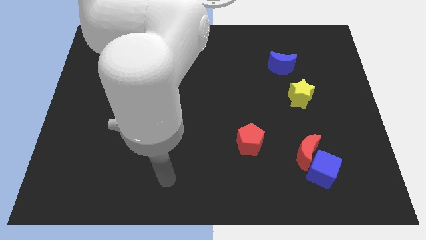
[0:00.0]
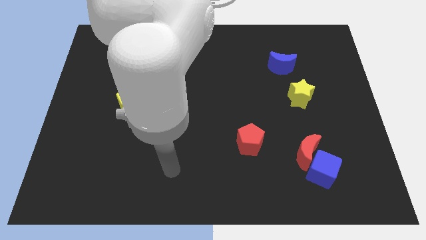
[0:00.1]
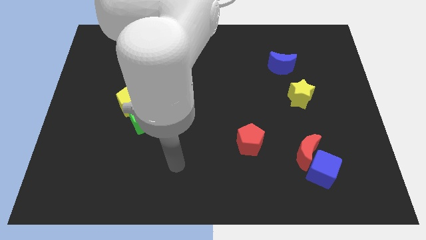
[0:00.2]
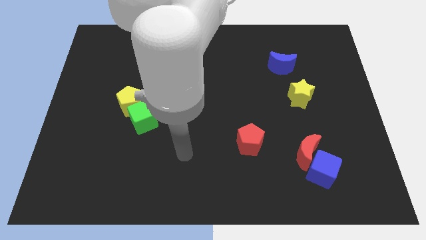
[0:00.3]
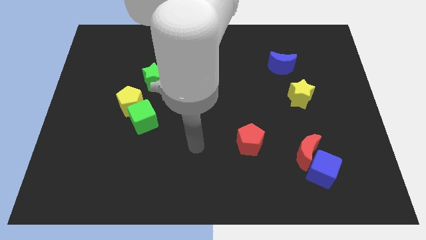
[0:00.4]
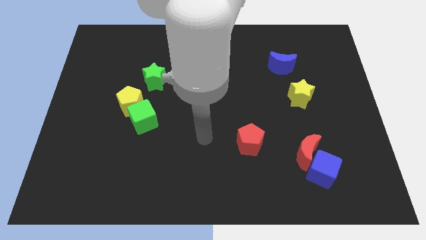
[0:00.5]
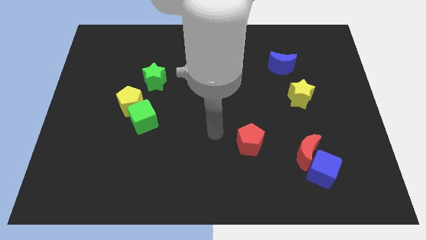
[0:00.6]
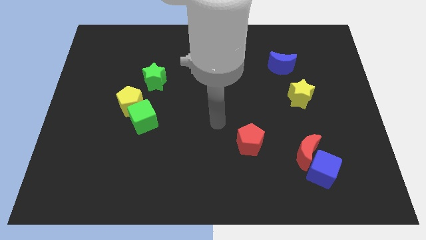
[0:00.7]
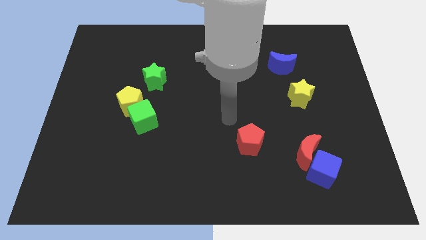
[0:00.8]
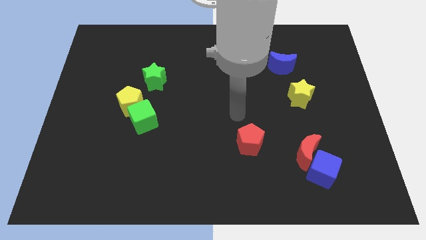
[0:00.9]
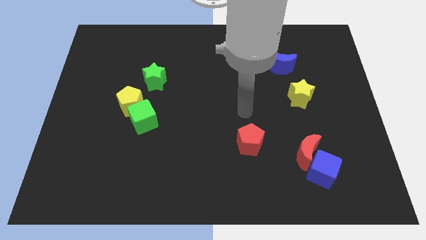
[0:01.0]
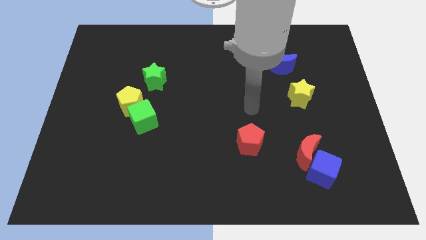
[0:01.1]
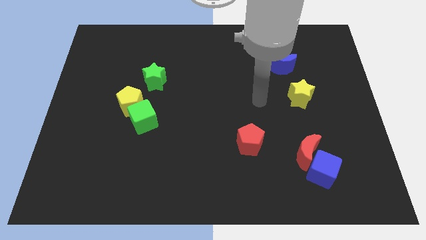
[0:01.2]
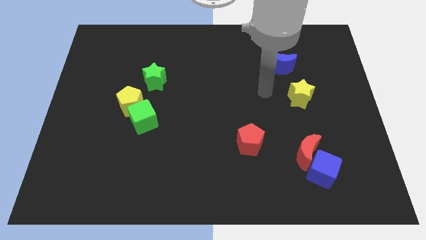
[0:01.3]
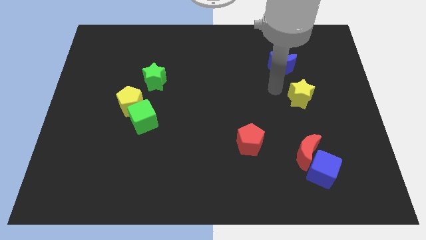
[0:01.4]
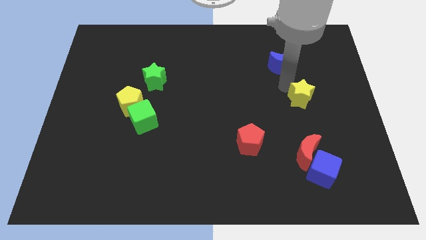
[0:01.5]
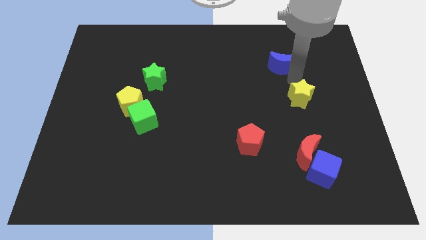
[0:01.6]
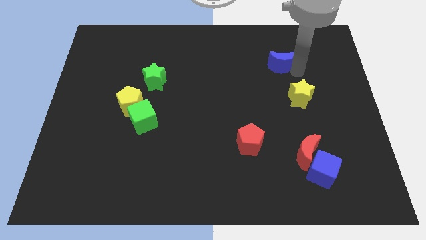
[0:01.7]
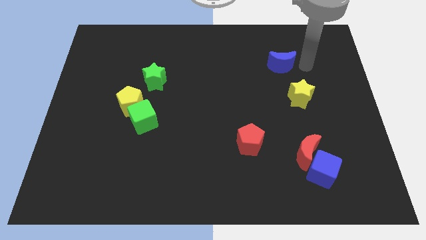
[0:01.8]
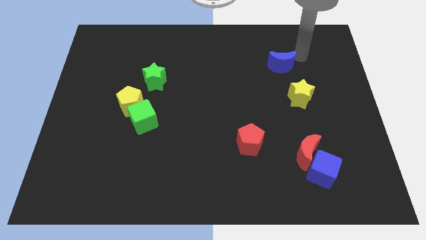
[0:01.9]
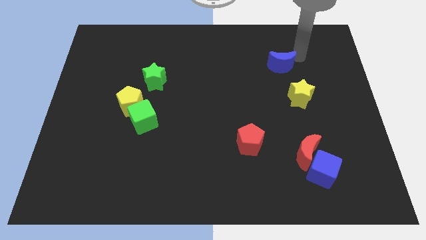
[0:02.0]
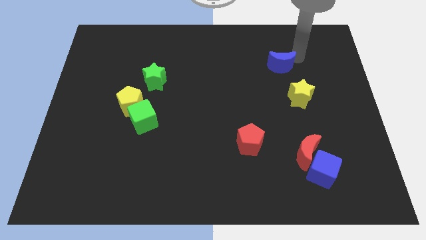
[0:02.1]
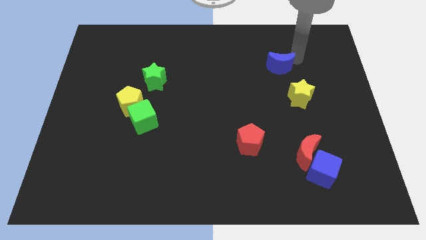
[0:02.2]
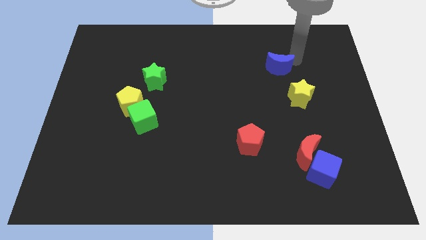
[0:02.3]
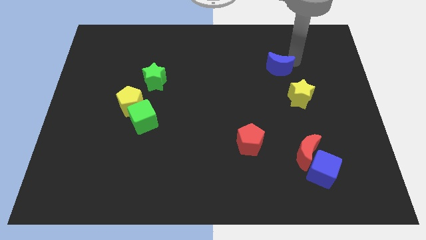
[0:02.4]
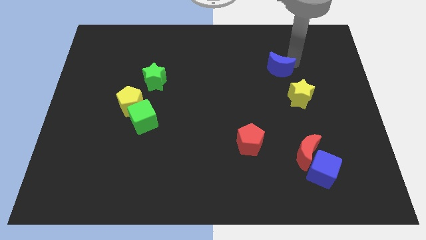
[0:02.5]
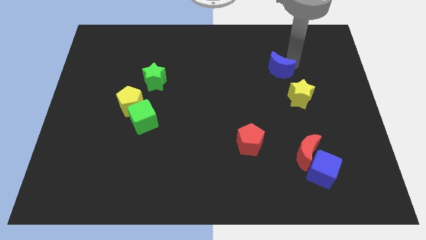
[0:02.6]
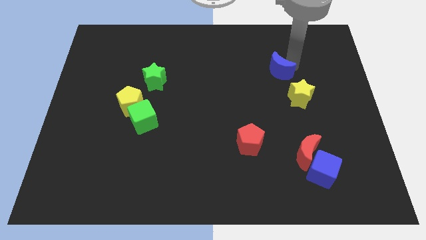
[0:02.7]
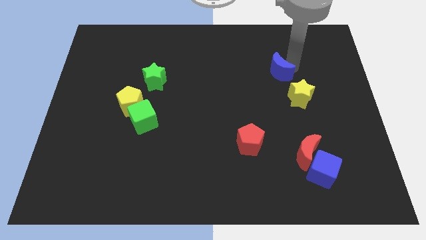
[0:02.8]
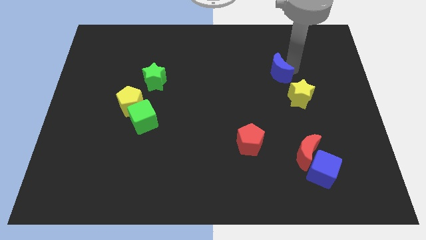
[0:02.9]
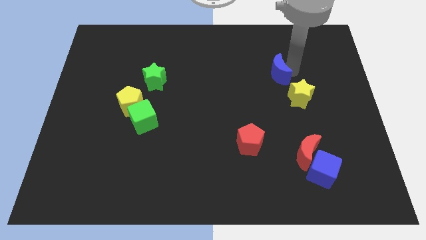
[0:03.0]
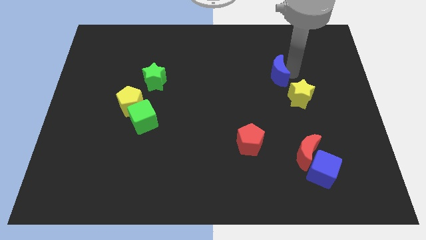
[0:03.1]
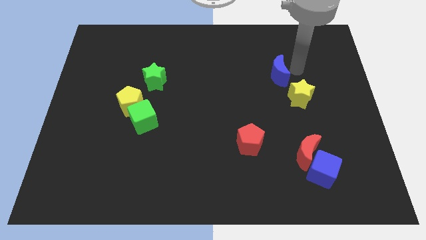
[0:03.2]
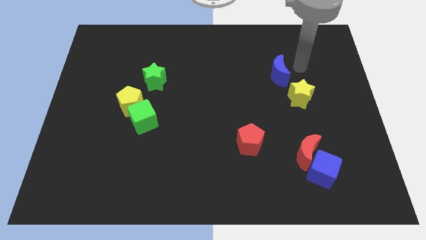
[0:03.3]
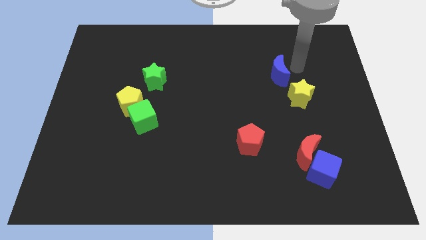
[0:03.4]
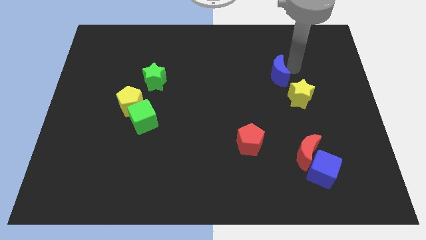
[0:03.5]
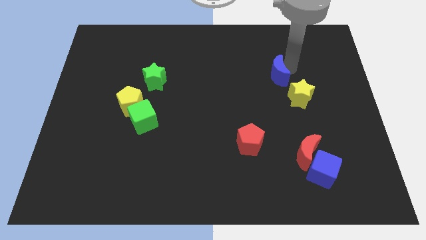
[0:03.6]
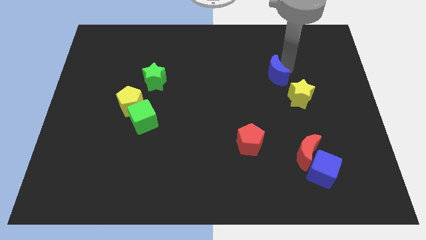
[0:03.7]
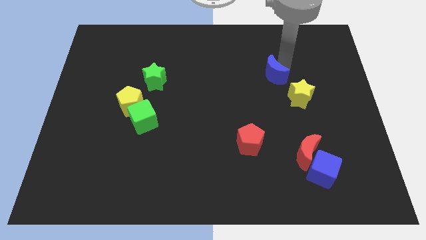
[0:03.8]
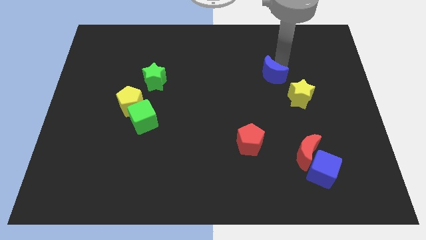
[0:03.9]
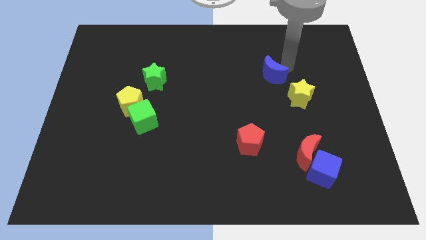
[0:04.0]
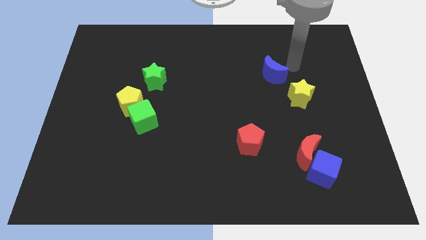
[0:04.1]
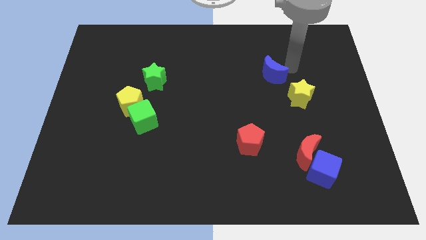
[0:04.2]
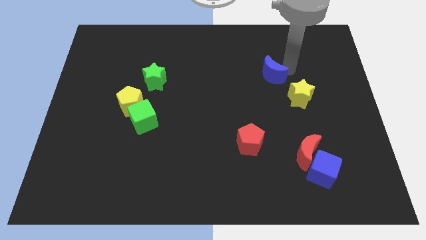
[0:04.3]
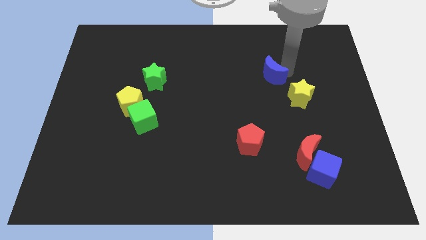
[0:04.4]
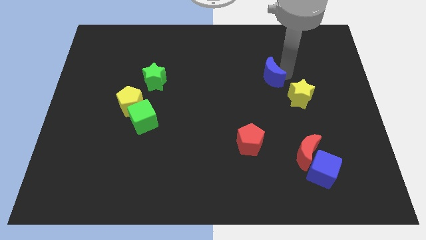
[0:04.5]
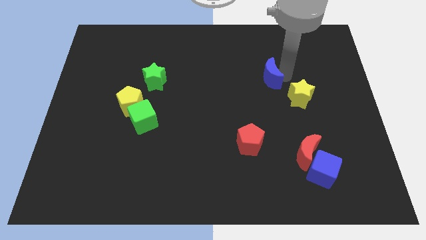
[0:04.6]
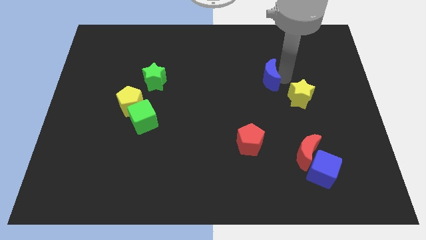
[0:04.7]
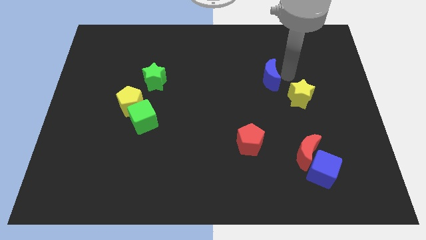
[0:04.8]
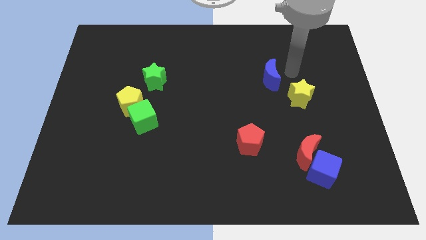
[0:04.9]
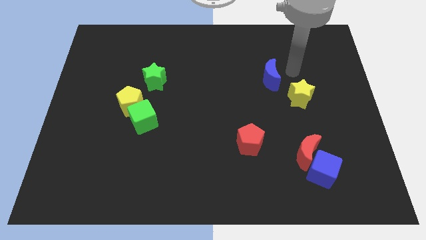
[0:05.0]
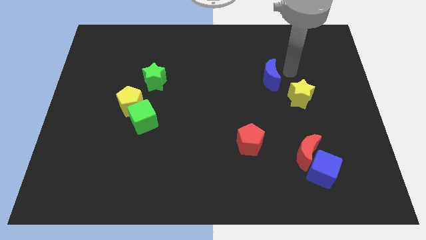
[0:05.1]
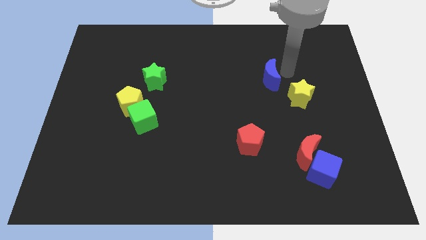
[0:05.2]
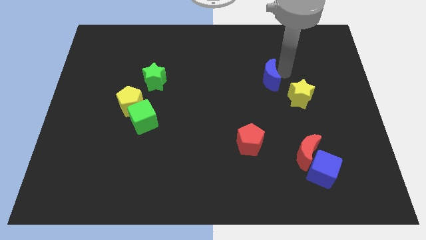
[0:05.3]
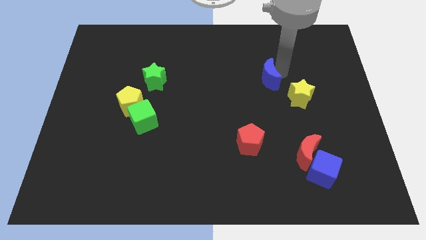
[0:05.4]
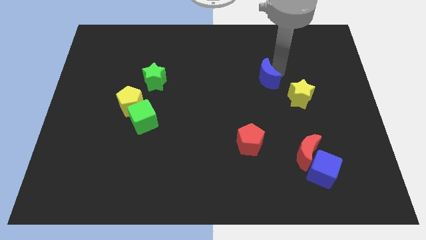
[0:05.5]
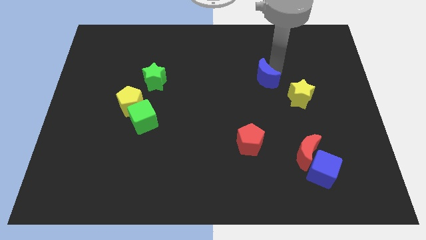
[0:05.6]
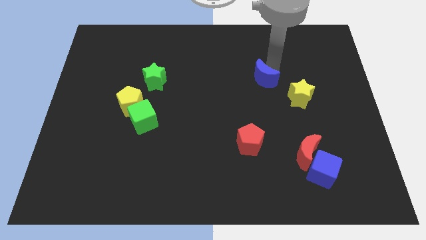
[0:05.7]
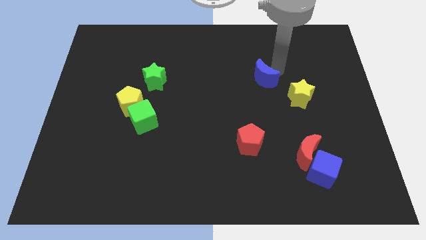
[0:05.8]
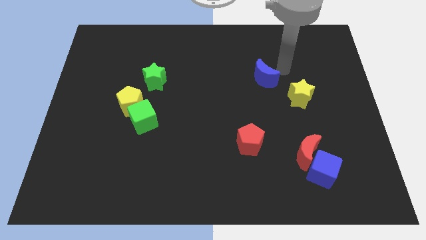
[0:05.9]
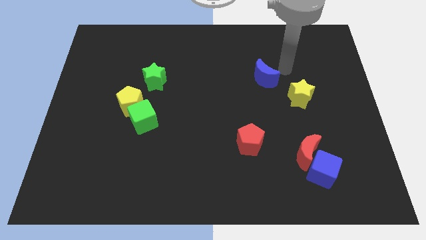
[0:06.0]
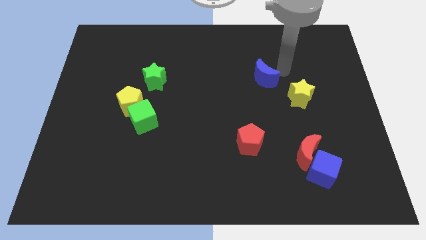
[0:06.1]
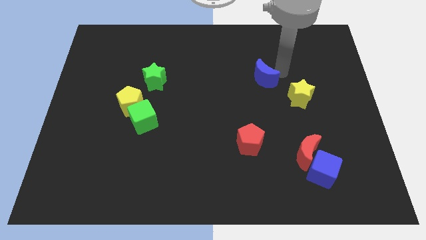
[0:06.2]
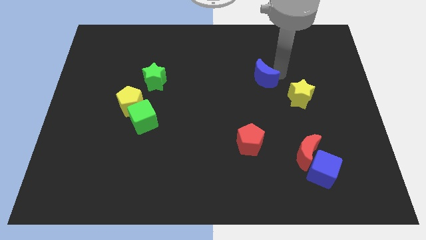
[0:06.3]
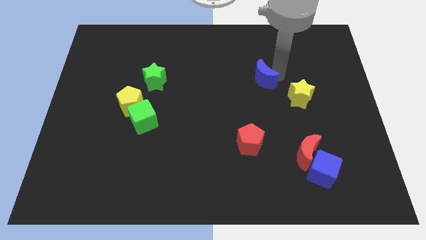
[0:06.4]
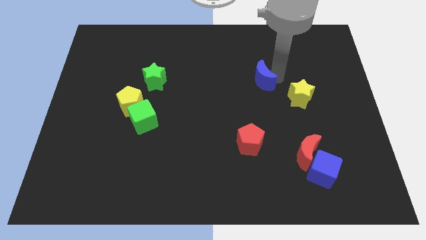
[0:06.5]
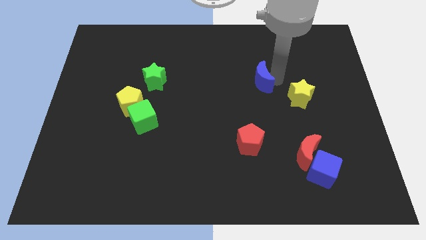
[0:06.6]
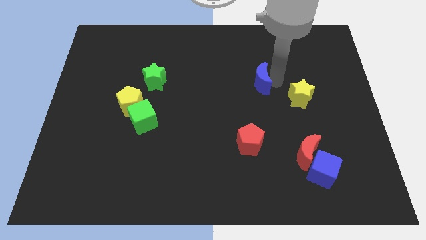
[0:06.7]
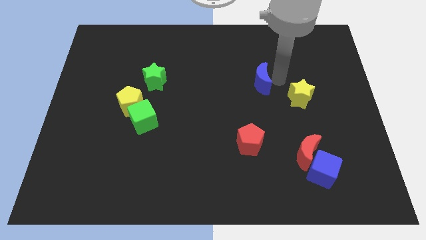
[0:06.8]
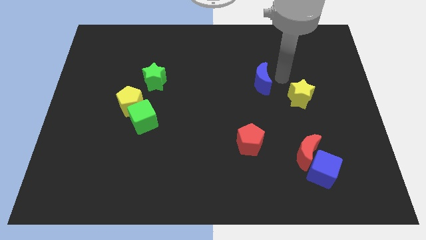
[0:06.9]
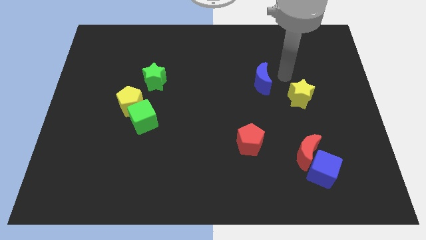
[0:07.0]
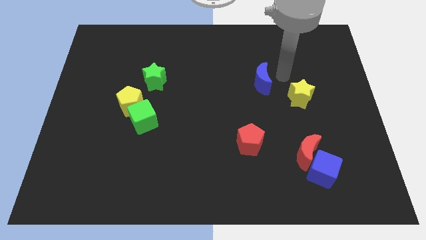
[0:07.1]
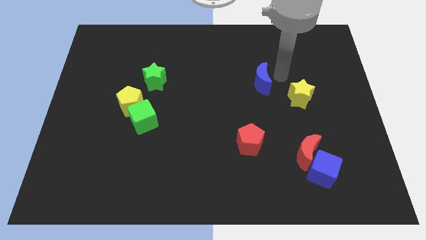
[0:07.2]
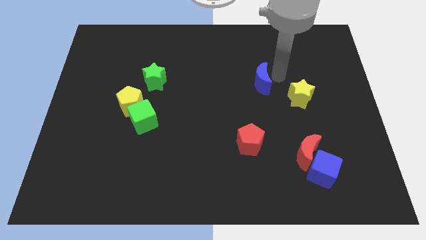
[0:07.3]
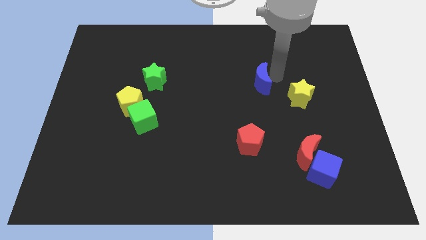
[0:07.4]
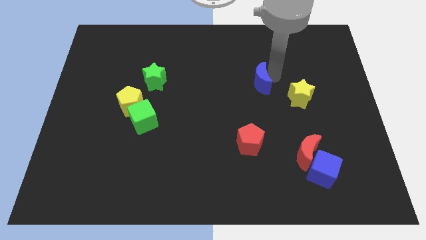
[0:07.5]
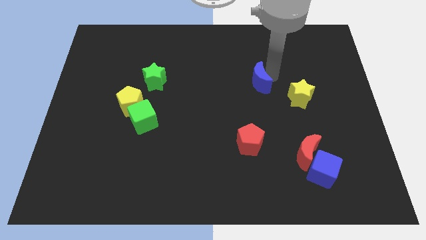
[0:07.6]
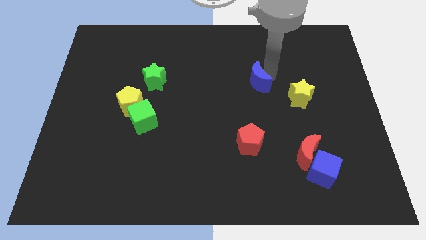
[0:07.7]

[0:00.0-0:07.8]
put the blue moon to the center of the board
